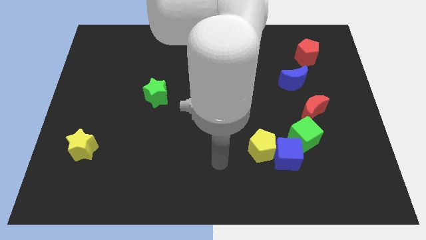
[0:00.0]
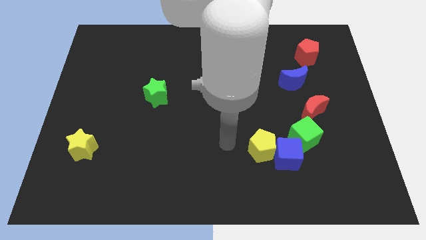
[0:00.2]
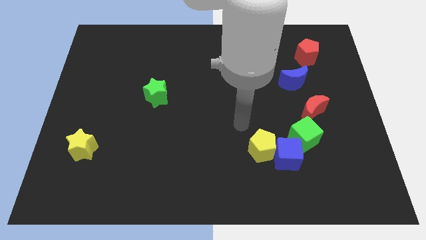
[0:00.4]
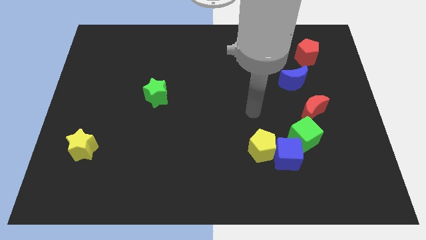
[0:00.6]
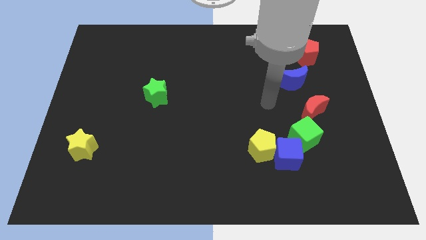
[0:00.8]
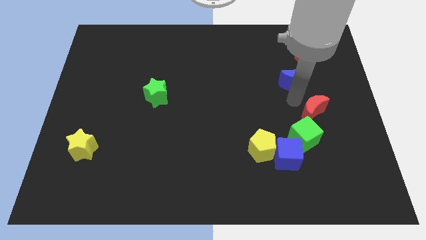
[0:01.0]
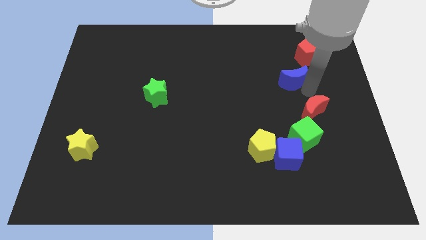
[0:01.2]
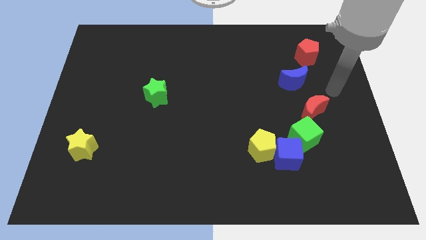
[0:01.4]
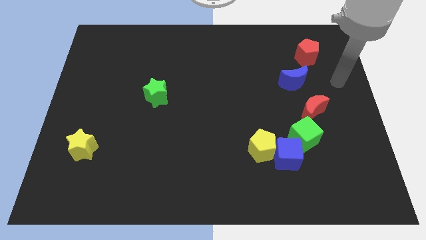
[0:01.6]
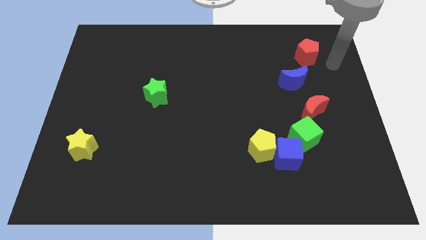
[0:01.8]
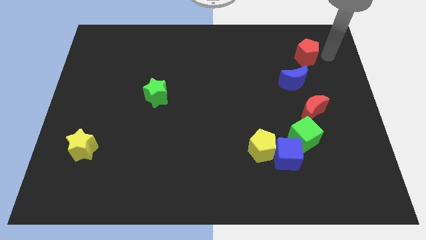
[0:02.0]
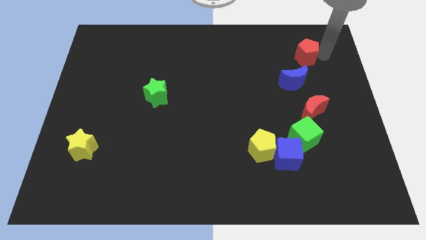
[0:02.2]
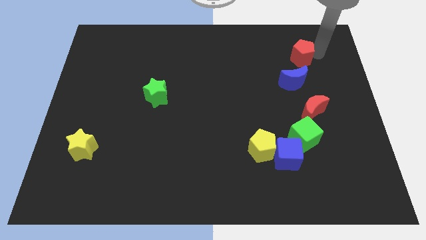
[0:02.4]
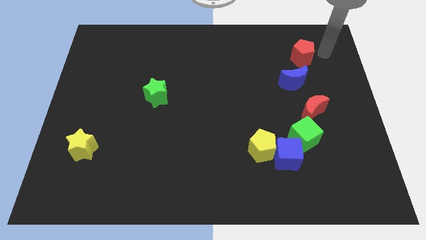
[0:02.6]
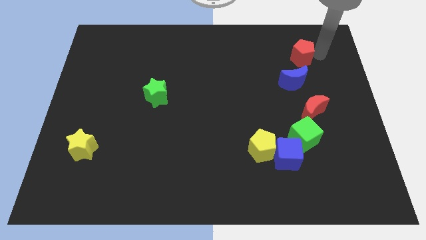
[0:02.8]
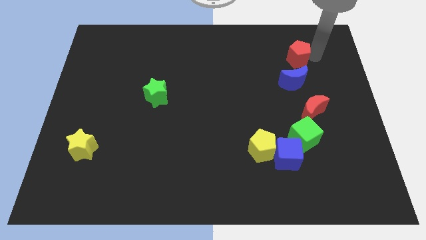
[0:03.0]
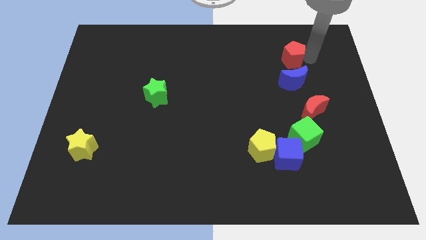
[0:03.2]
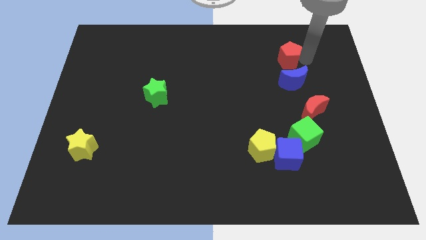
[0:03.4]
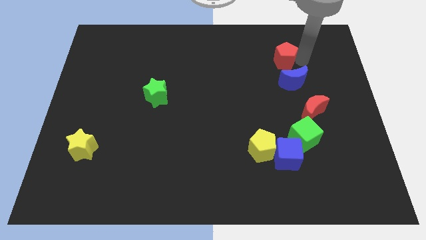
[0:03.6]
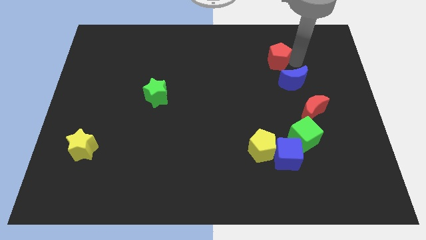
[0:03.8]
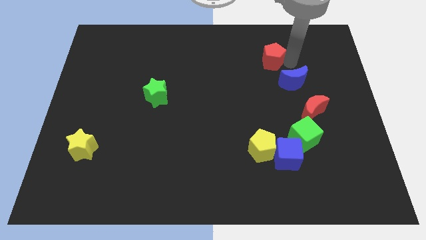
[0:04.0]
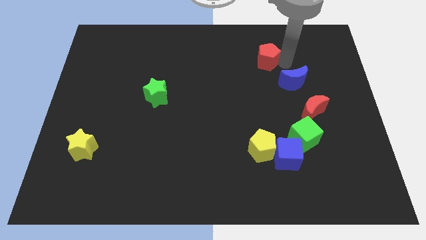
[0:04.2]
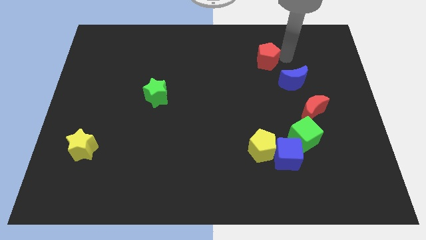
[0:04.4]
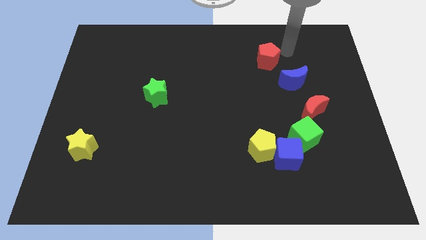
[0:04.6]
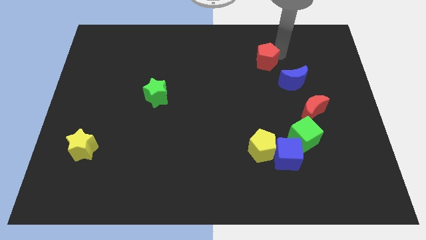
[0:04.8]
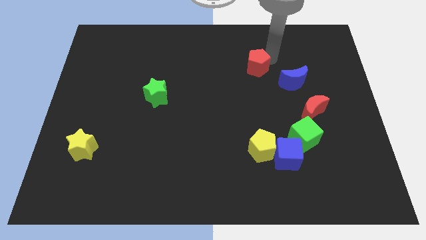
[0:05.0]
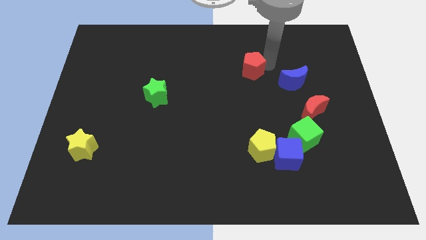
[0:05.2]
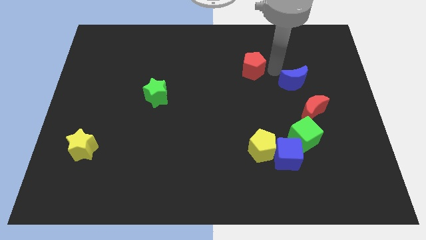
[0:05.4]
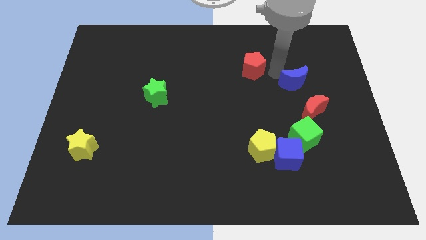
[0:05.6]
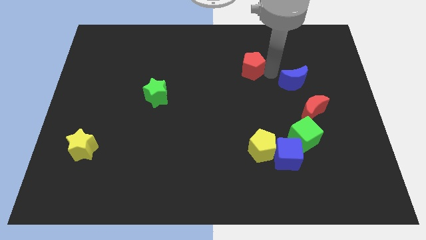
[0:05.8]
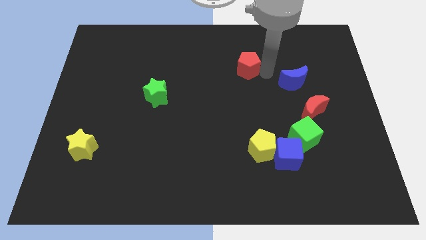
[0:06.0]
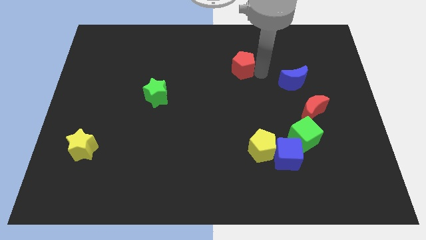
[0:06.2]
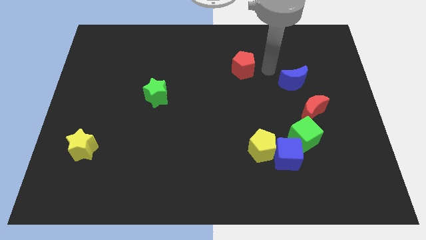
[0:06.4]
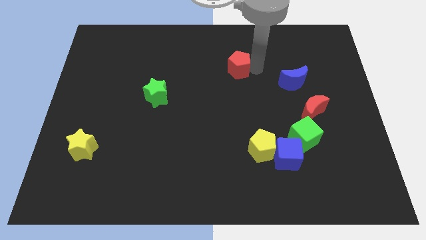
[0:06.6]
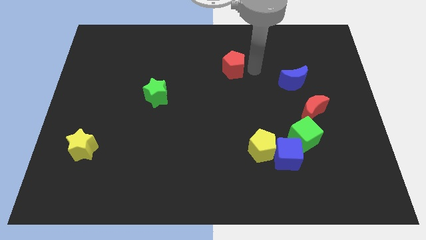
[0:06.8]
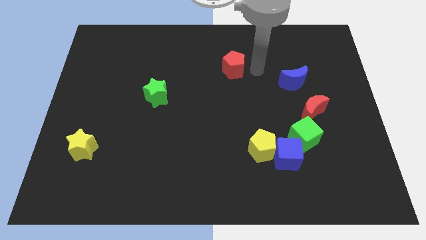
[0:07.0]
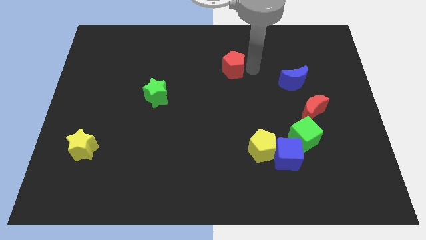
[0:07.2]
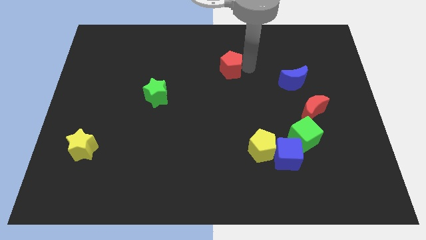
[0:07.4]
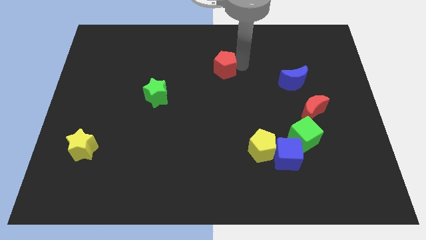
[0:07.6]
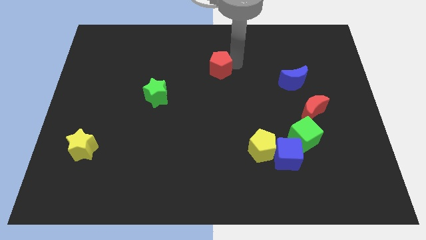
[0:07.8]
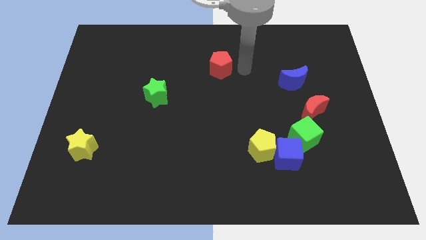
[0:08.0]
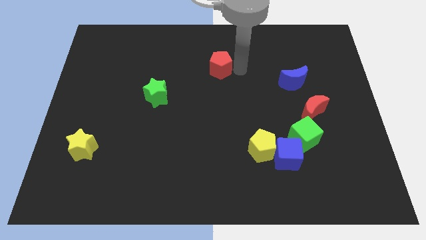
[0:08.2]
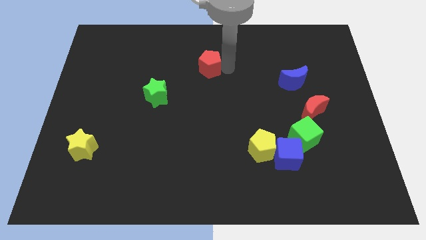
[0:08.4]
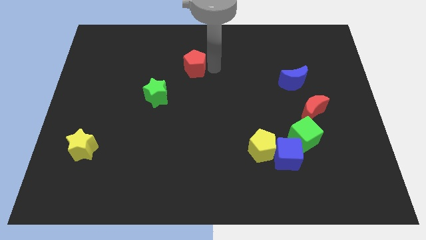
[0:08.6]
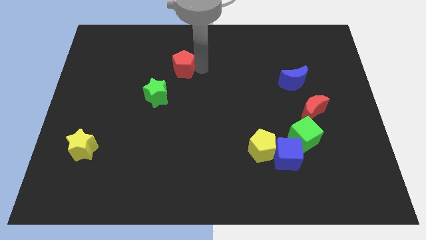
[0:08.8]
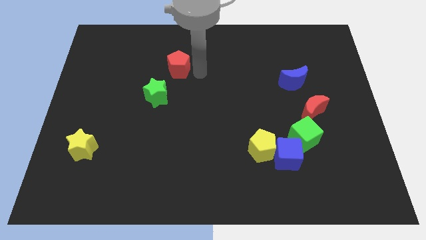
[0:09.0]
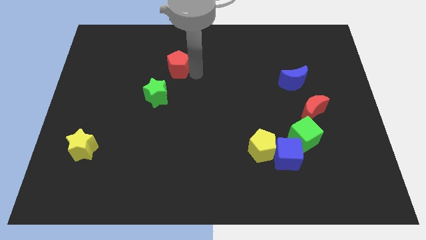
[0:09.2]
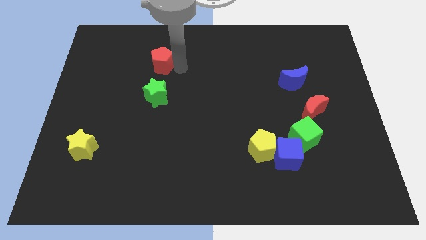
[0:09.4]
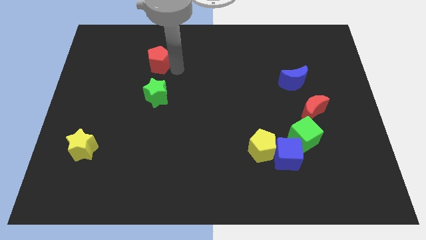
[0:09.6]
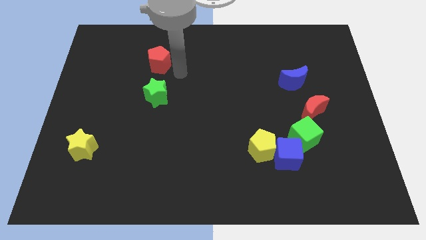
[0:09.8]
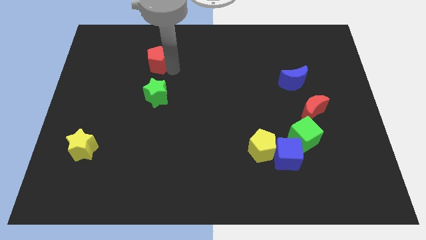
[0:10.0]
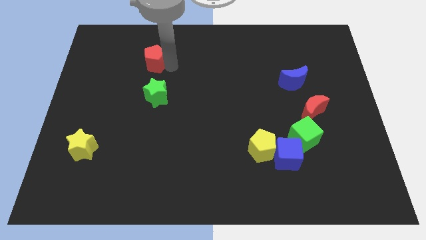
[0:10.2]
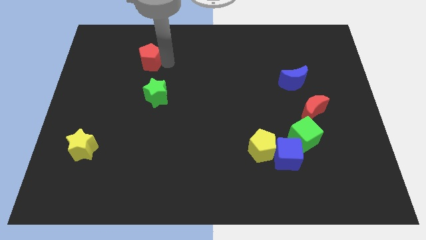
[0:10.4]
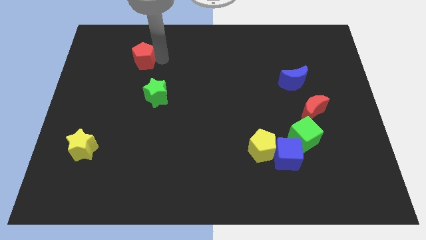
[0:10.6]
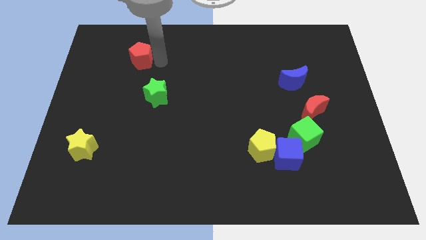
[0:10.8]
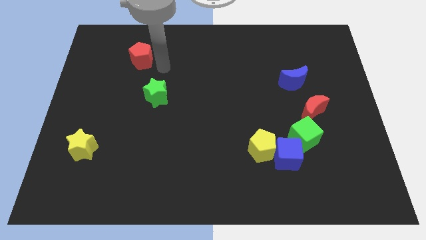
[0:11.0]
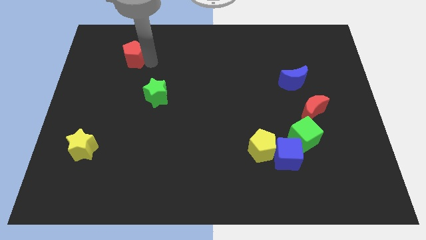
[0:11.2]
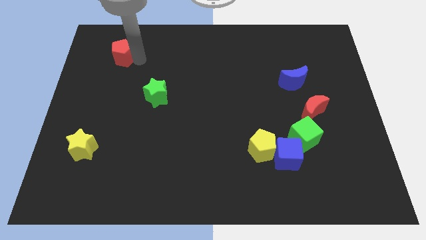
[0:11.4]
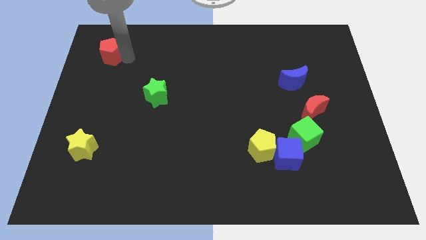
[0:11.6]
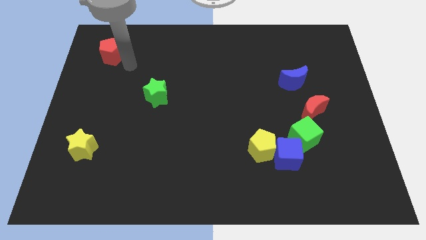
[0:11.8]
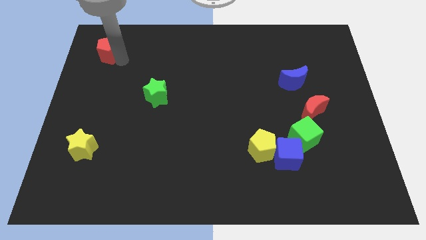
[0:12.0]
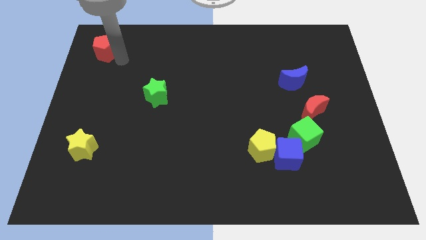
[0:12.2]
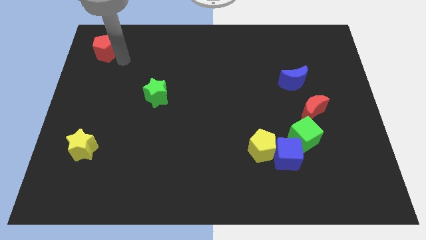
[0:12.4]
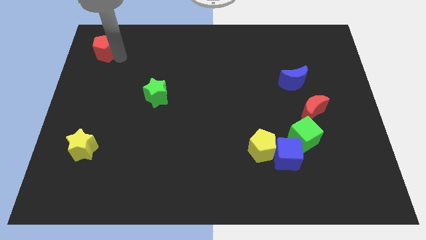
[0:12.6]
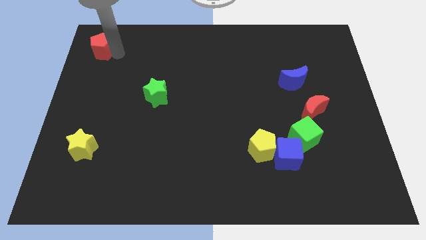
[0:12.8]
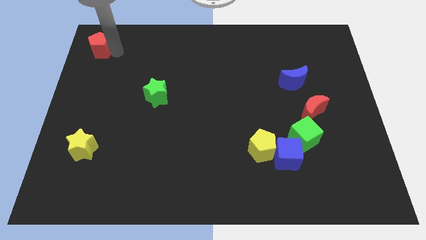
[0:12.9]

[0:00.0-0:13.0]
put the red pentagon to the top left of the board

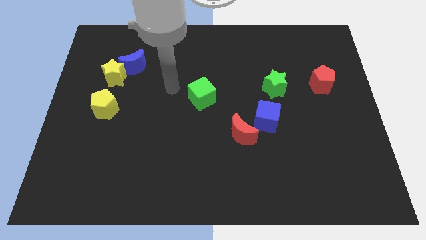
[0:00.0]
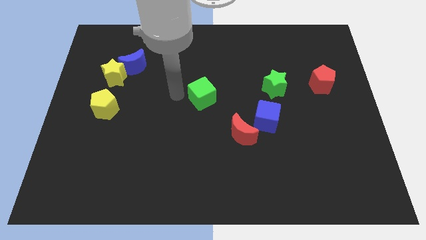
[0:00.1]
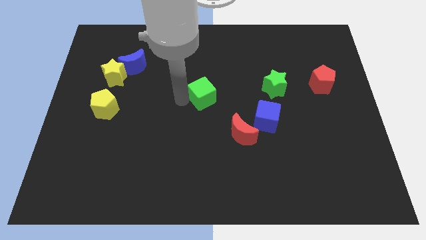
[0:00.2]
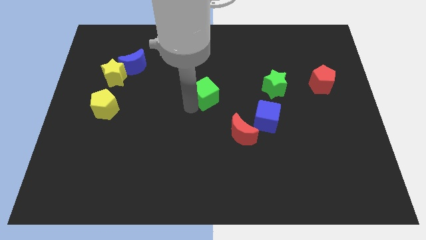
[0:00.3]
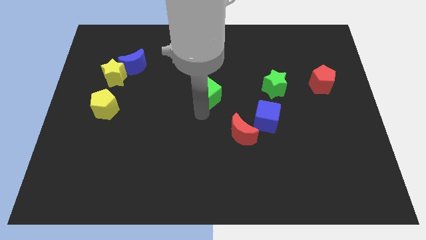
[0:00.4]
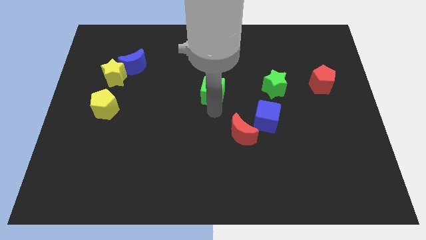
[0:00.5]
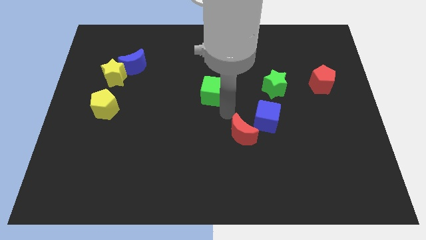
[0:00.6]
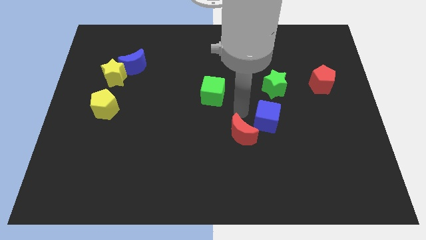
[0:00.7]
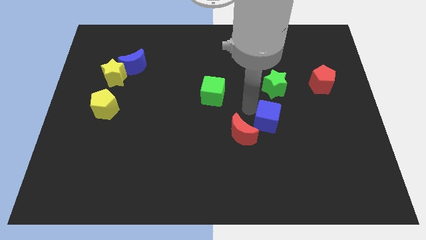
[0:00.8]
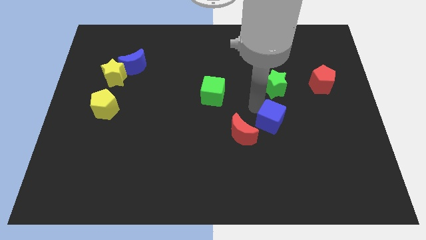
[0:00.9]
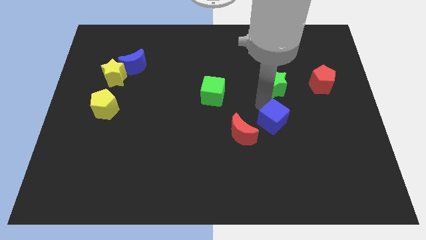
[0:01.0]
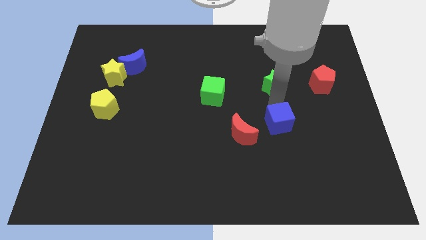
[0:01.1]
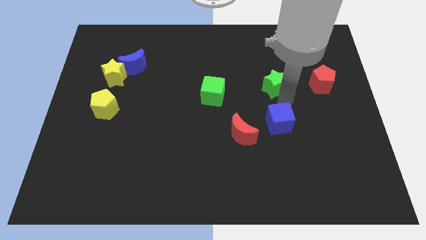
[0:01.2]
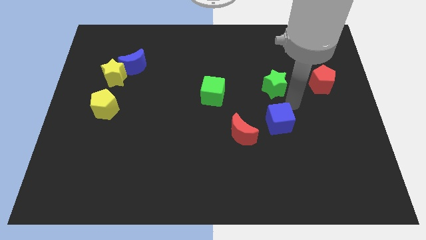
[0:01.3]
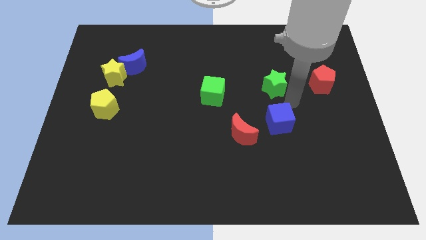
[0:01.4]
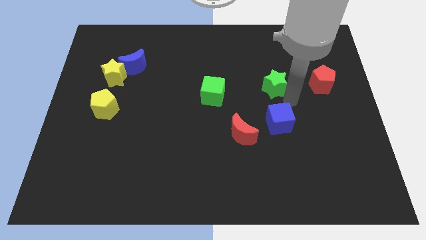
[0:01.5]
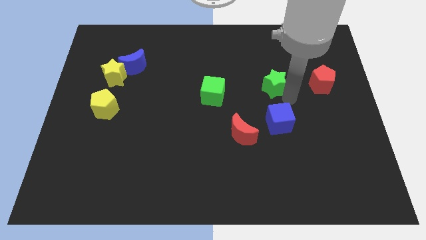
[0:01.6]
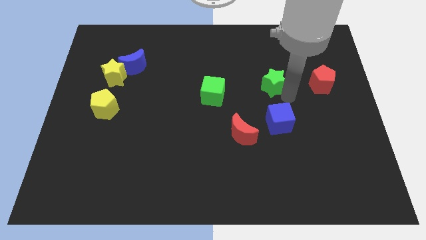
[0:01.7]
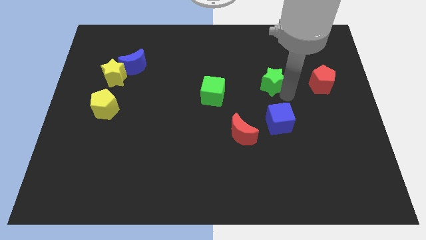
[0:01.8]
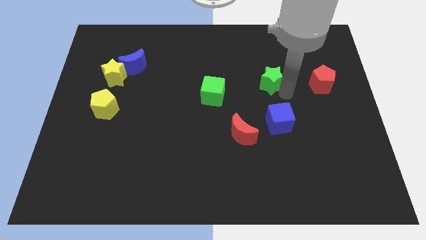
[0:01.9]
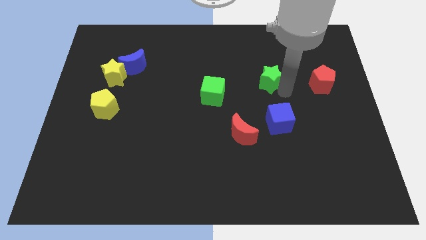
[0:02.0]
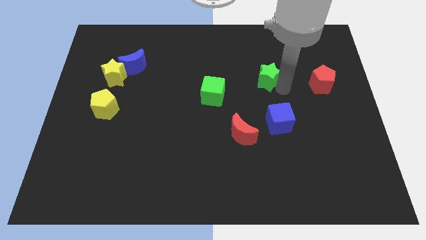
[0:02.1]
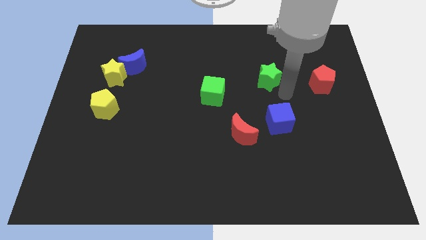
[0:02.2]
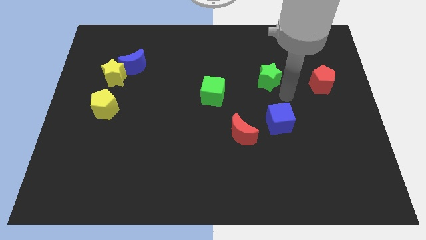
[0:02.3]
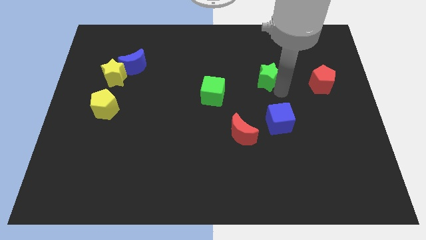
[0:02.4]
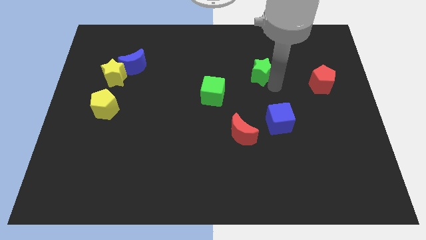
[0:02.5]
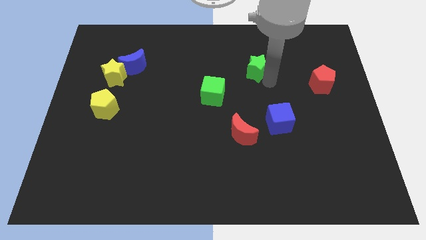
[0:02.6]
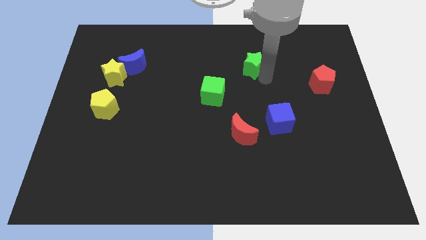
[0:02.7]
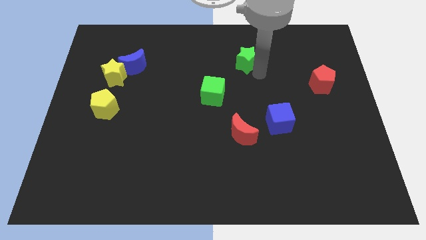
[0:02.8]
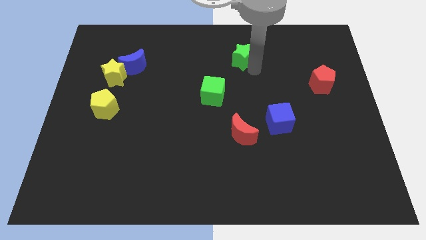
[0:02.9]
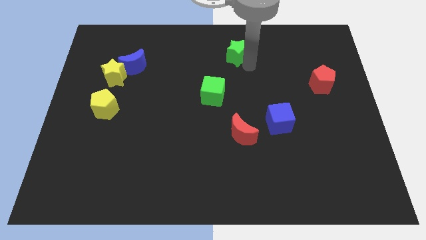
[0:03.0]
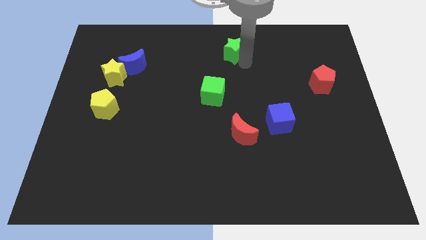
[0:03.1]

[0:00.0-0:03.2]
slide the green star to the top
